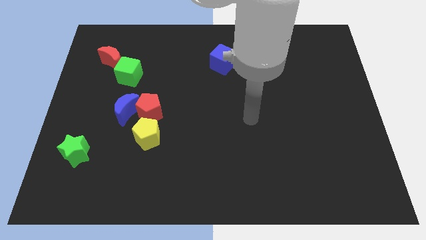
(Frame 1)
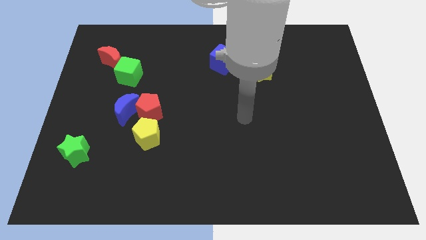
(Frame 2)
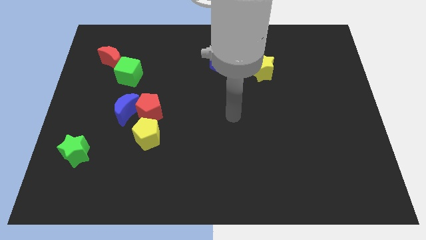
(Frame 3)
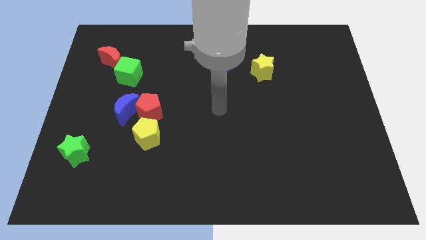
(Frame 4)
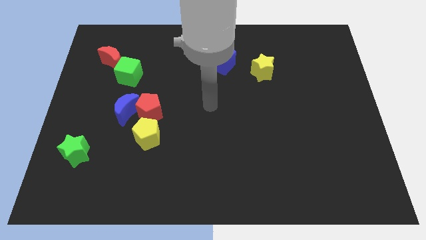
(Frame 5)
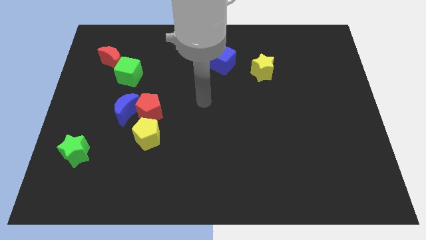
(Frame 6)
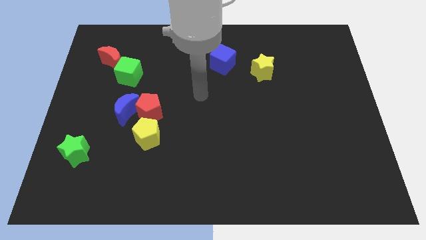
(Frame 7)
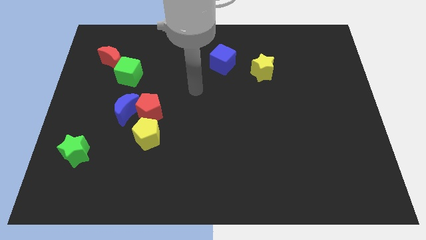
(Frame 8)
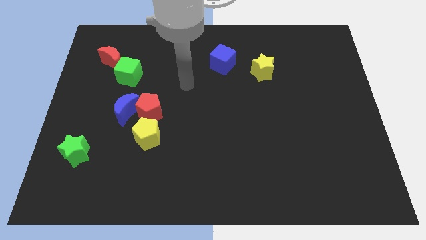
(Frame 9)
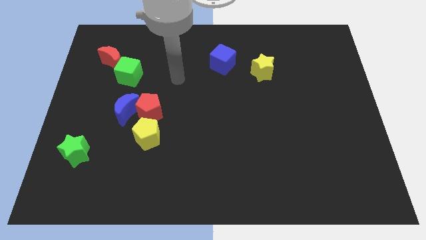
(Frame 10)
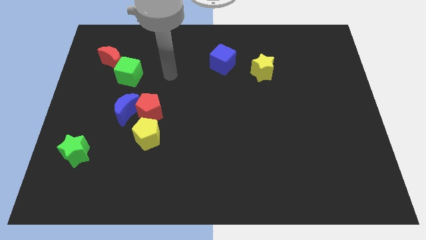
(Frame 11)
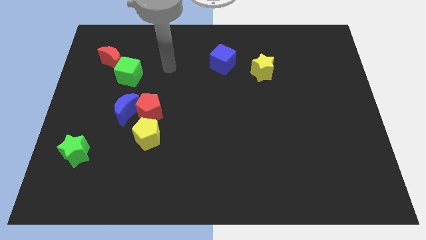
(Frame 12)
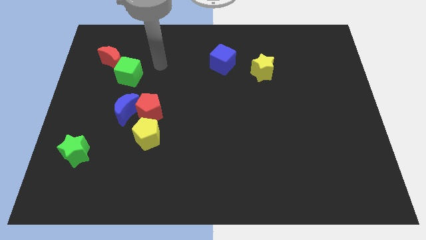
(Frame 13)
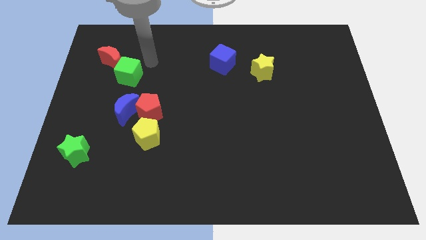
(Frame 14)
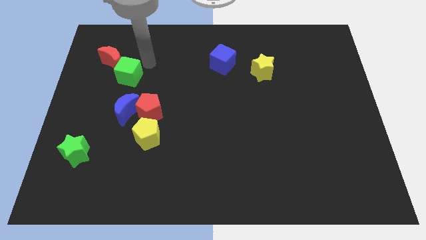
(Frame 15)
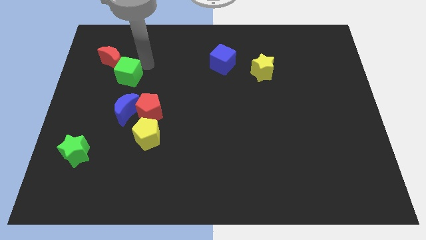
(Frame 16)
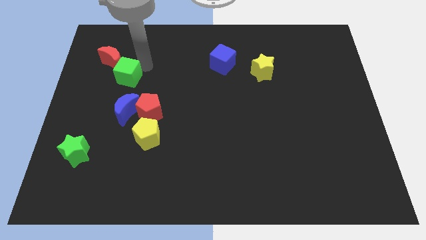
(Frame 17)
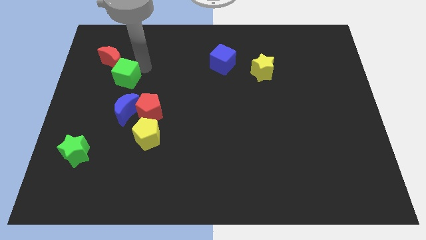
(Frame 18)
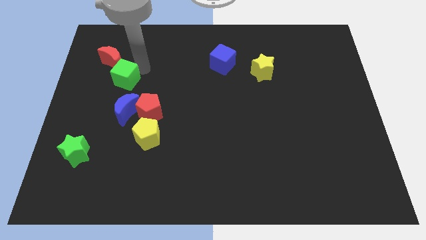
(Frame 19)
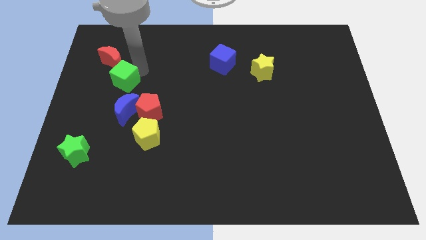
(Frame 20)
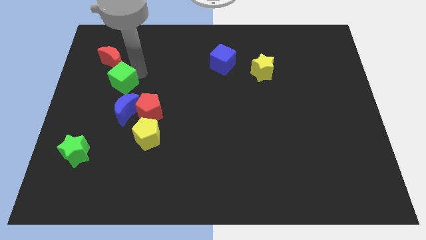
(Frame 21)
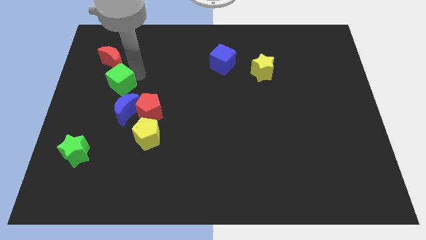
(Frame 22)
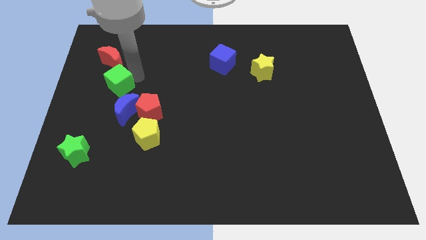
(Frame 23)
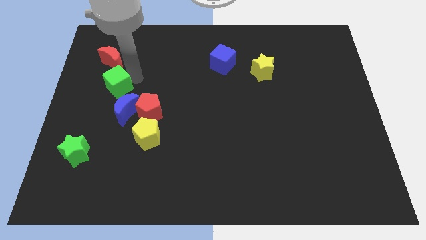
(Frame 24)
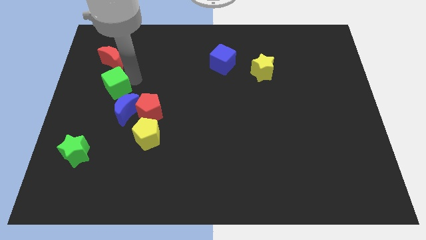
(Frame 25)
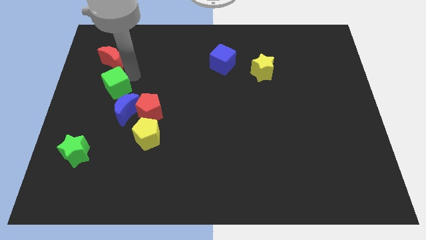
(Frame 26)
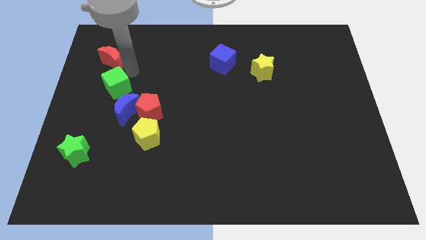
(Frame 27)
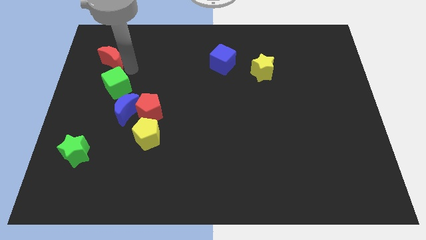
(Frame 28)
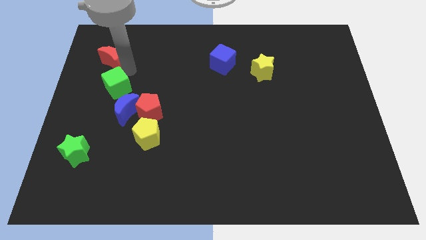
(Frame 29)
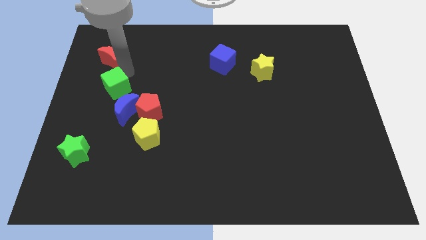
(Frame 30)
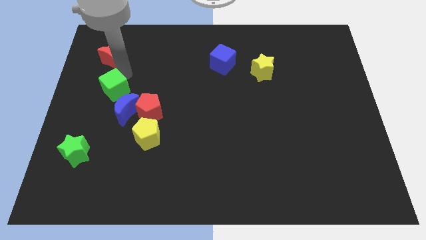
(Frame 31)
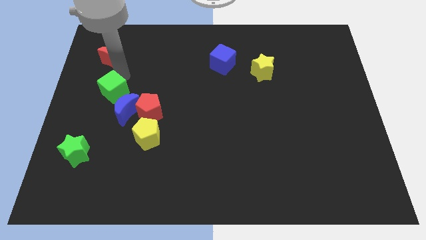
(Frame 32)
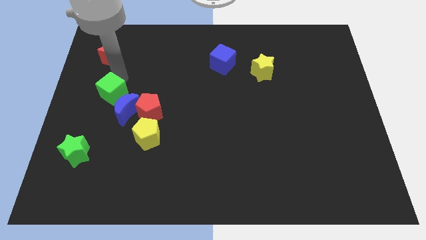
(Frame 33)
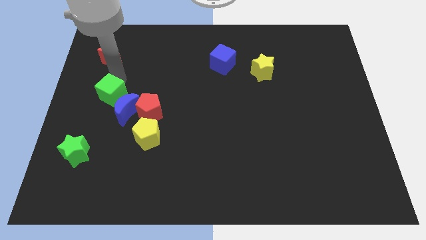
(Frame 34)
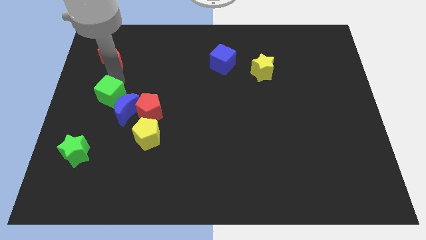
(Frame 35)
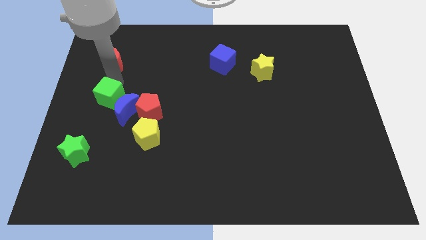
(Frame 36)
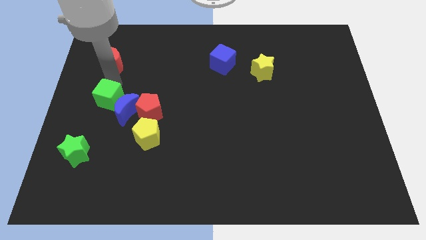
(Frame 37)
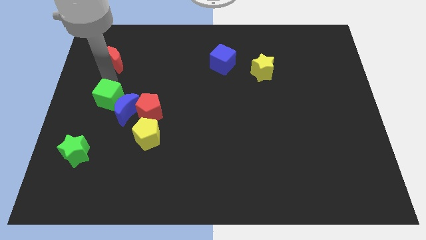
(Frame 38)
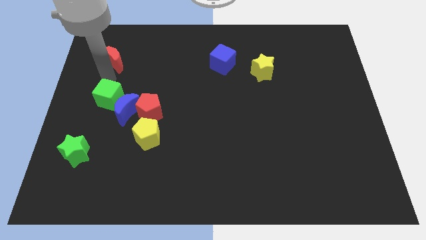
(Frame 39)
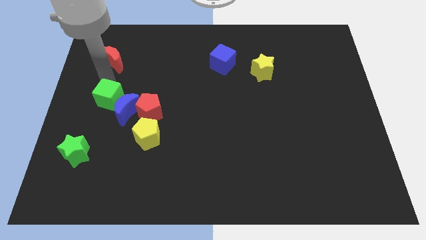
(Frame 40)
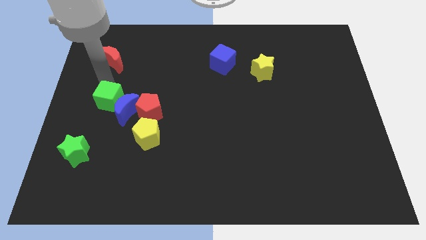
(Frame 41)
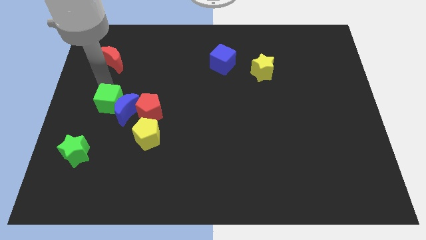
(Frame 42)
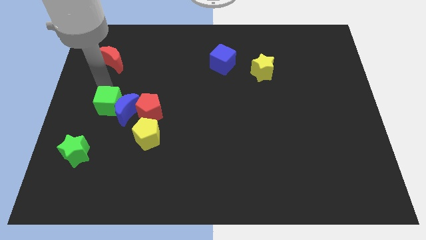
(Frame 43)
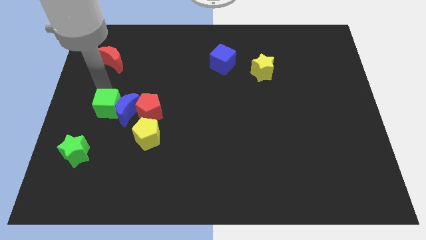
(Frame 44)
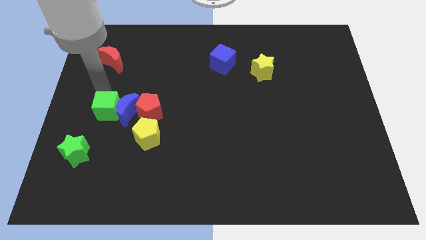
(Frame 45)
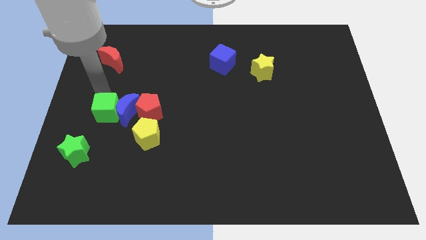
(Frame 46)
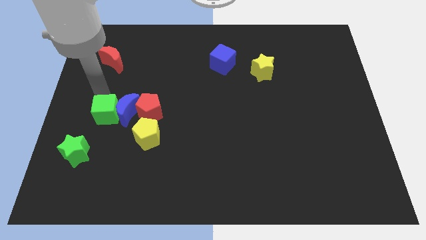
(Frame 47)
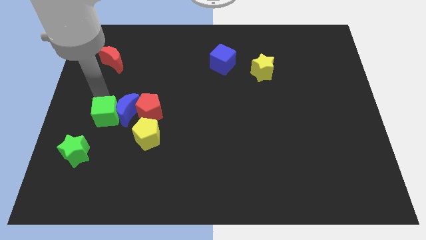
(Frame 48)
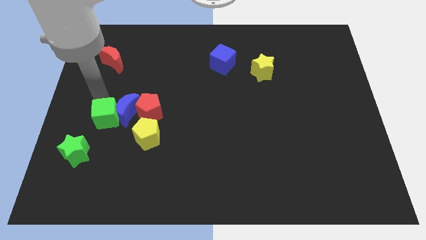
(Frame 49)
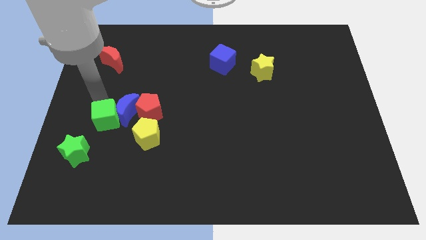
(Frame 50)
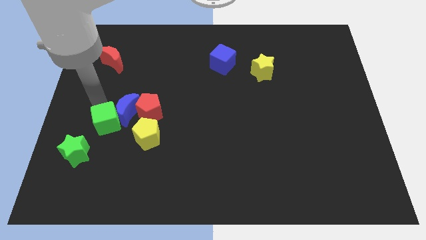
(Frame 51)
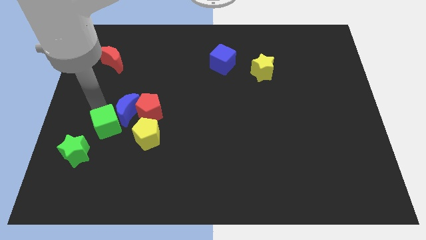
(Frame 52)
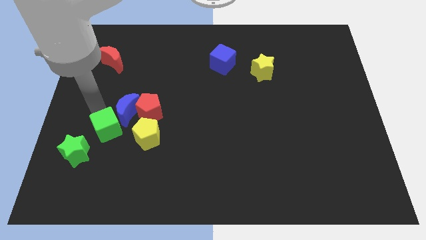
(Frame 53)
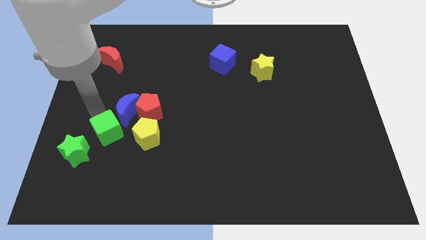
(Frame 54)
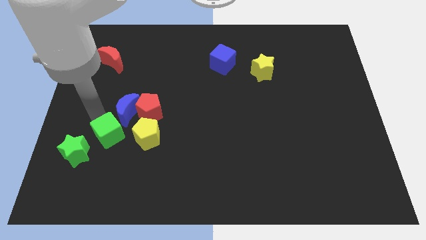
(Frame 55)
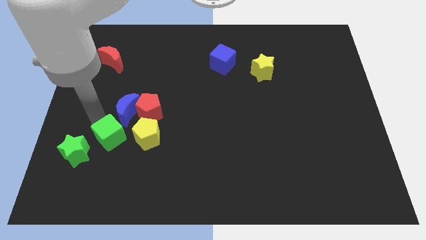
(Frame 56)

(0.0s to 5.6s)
put the green cube to the right side of the green star

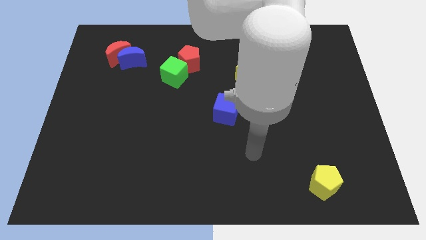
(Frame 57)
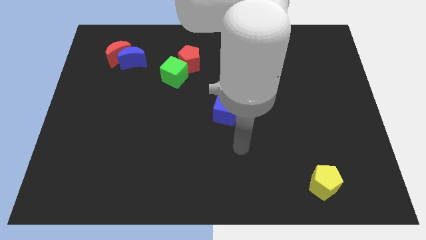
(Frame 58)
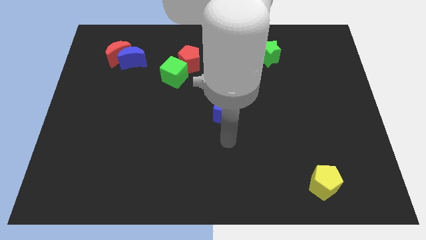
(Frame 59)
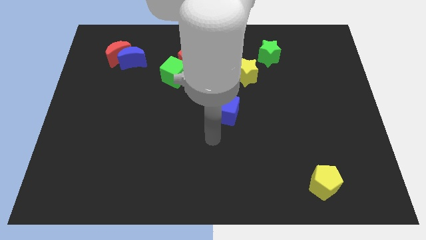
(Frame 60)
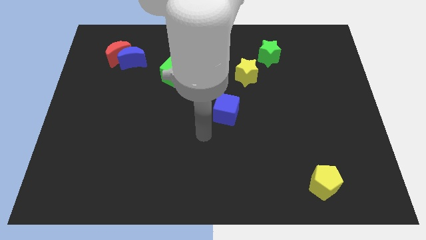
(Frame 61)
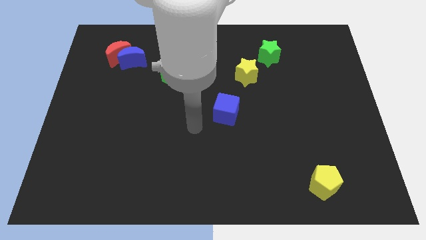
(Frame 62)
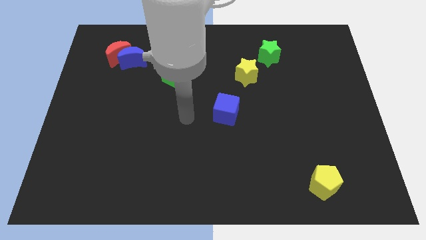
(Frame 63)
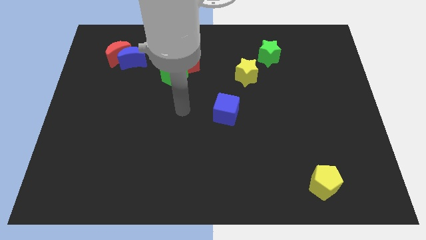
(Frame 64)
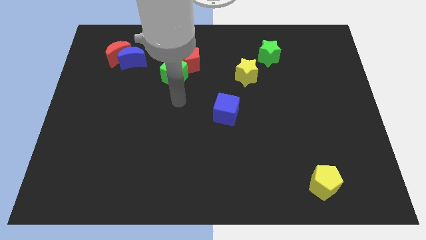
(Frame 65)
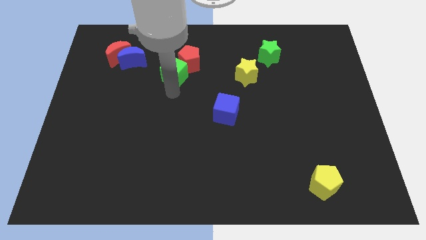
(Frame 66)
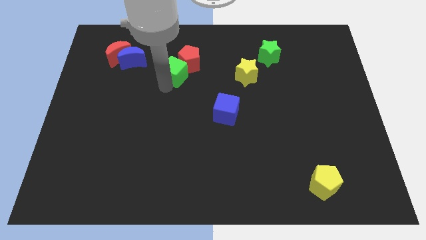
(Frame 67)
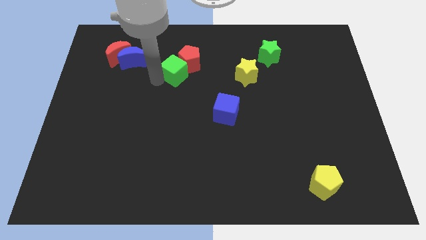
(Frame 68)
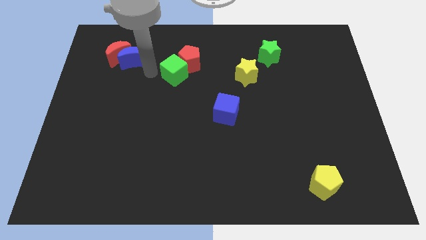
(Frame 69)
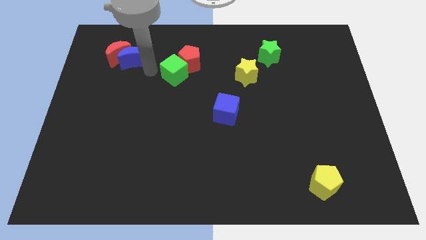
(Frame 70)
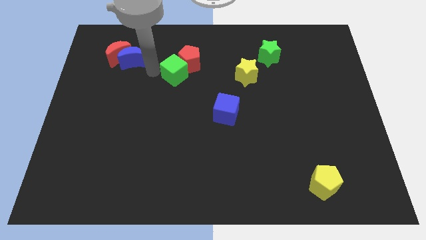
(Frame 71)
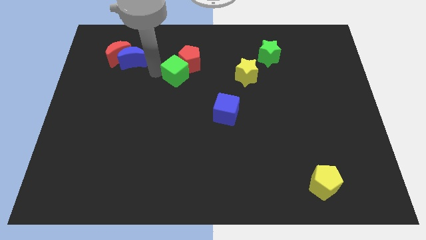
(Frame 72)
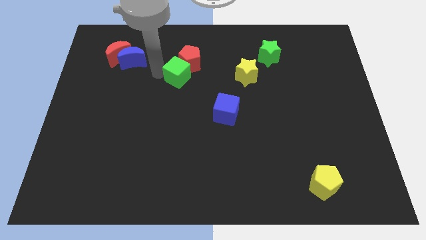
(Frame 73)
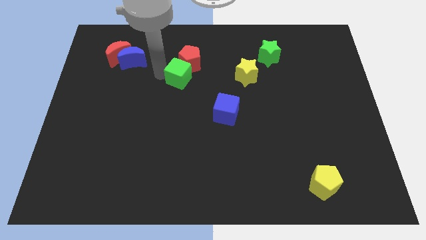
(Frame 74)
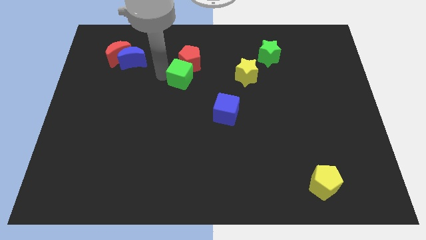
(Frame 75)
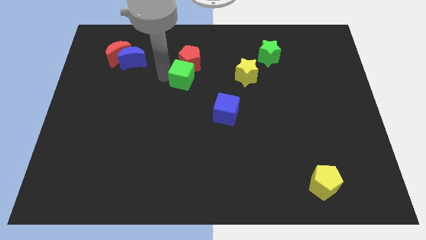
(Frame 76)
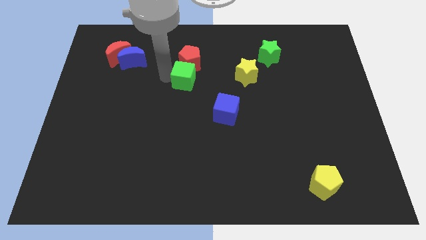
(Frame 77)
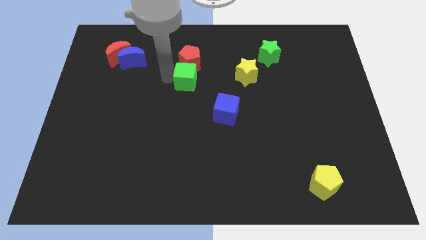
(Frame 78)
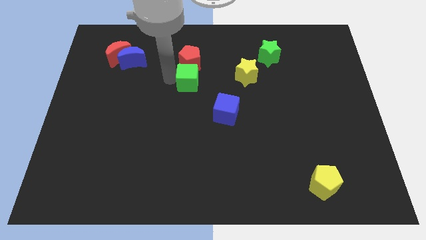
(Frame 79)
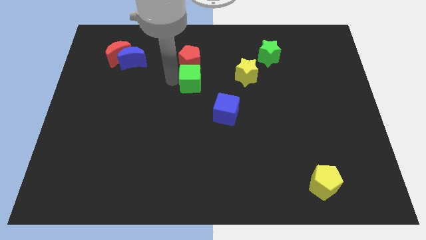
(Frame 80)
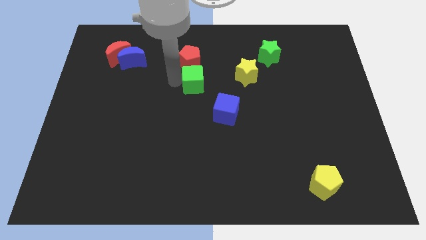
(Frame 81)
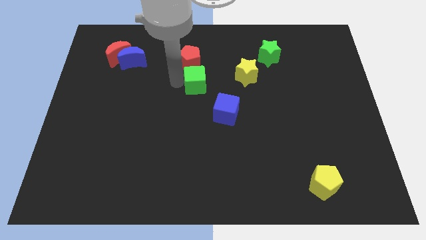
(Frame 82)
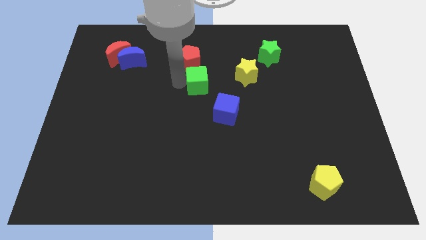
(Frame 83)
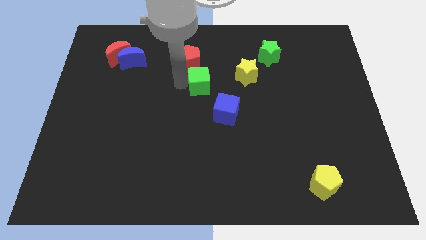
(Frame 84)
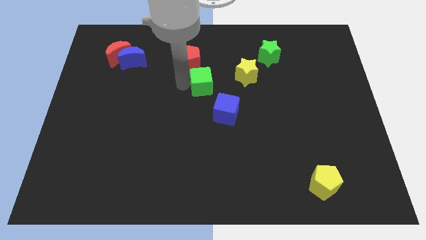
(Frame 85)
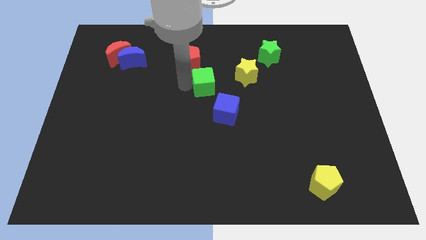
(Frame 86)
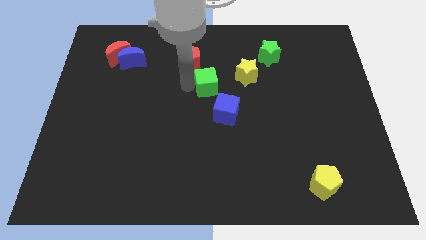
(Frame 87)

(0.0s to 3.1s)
push the green cube above the blue cube
